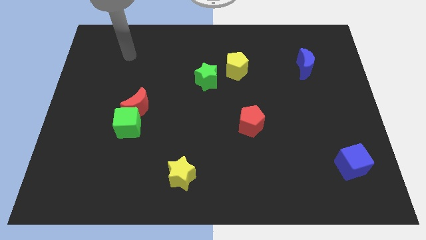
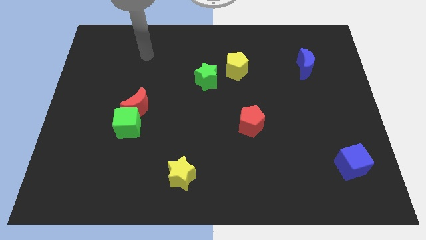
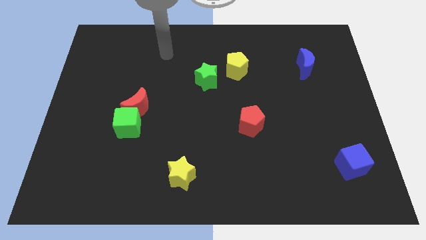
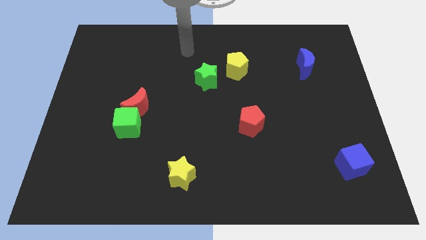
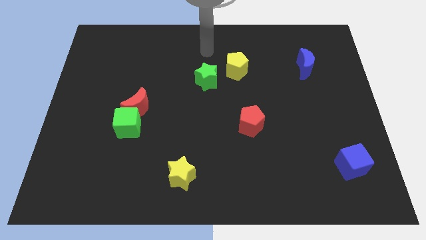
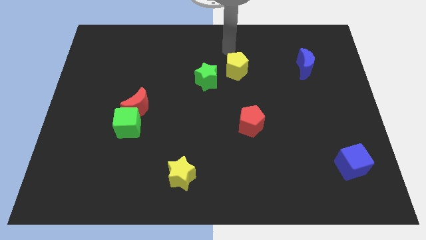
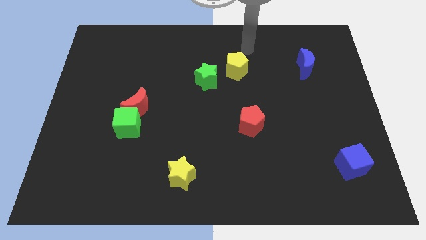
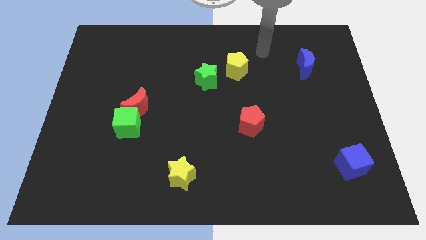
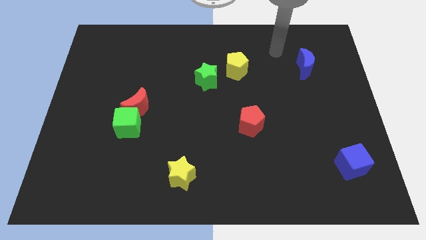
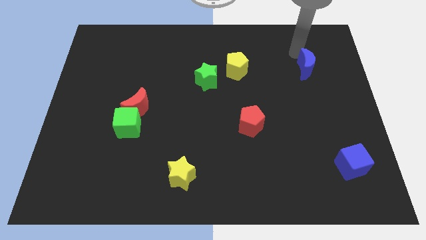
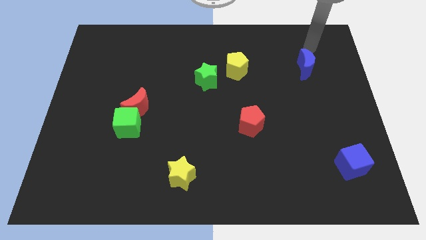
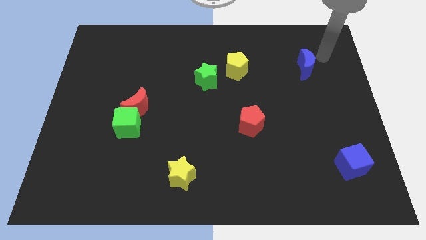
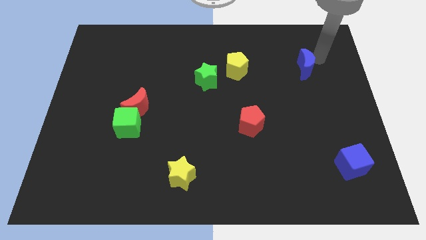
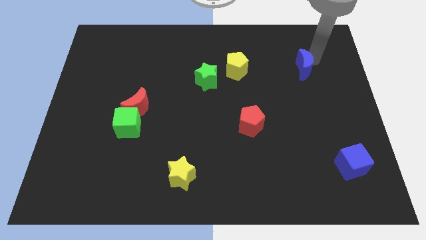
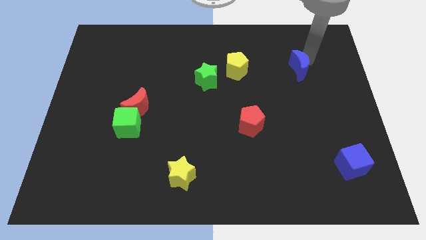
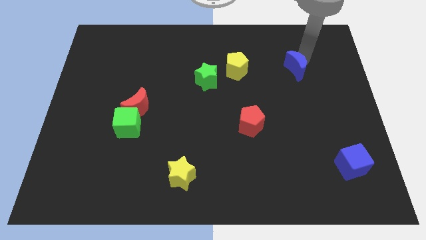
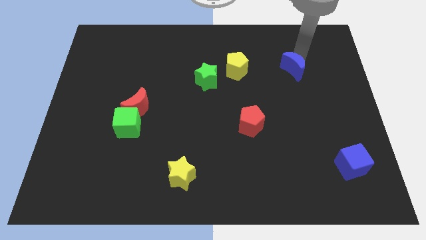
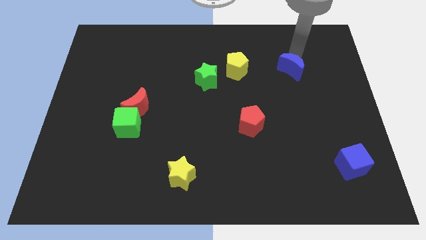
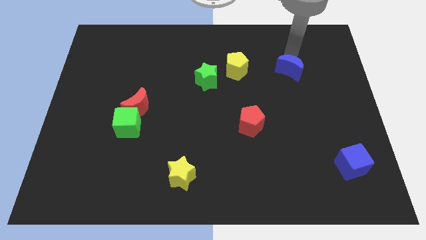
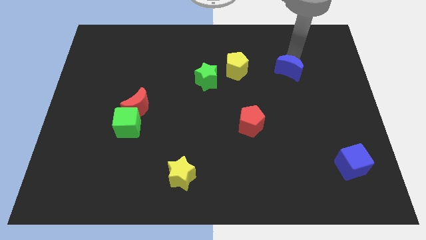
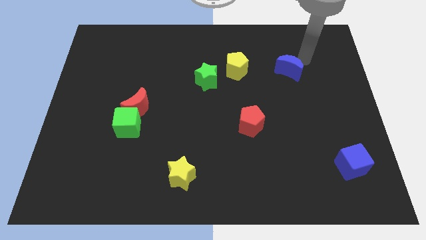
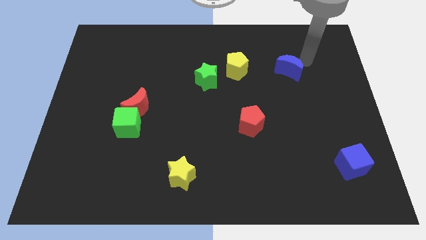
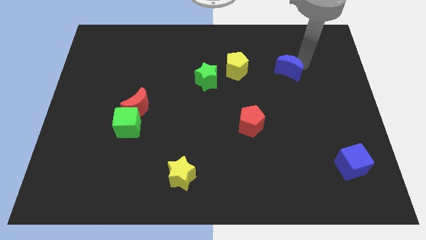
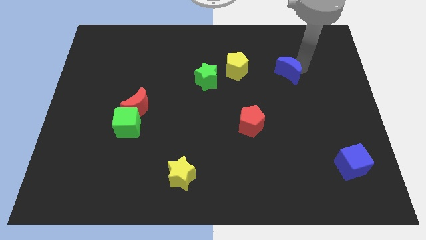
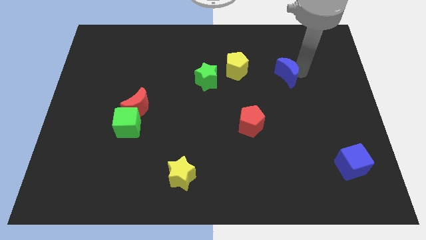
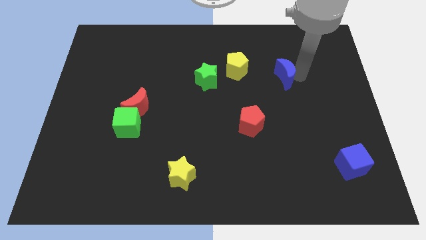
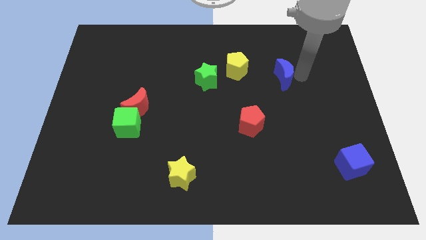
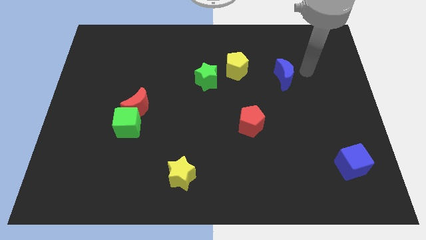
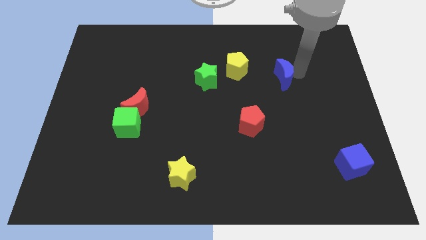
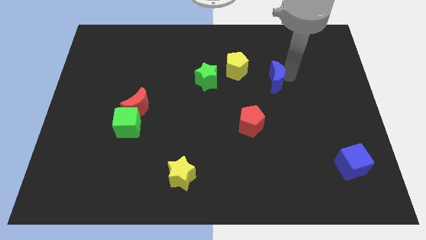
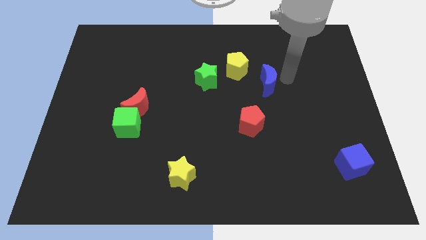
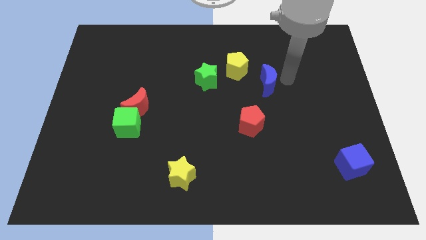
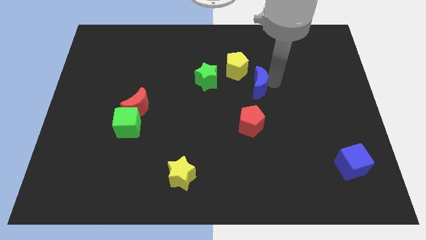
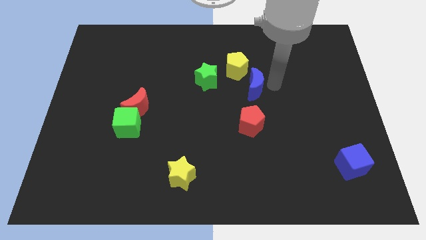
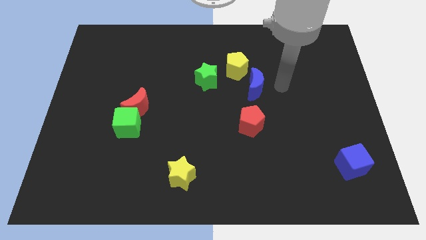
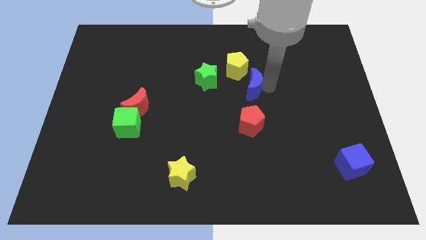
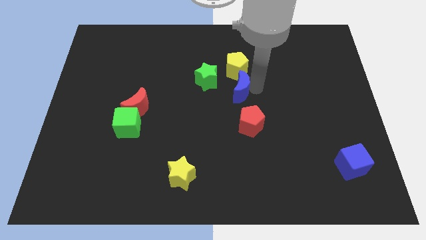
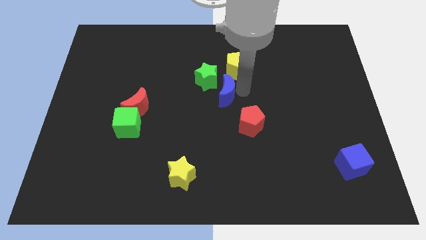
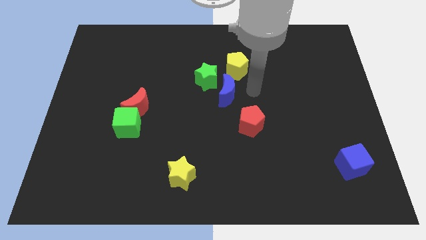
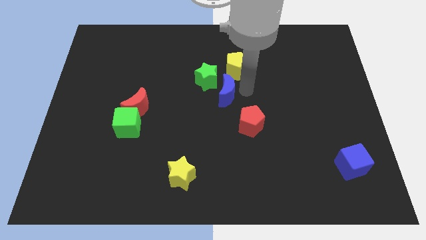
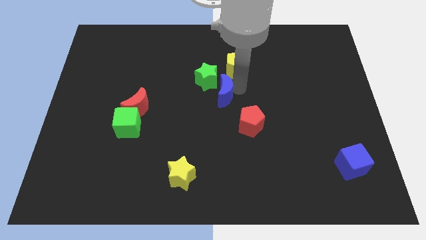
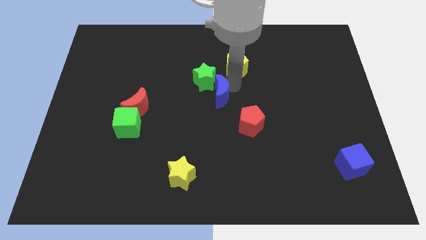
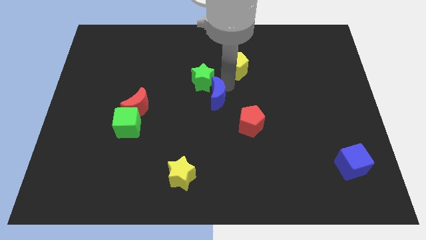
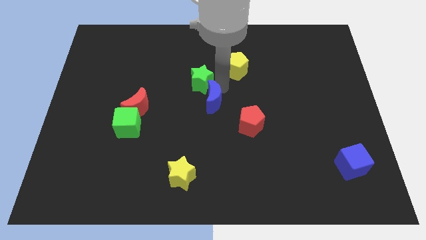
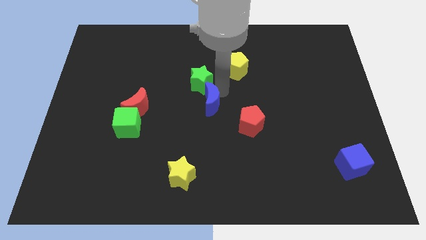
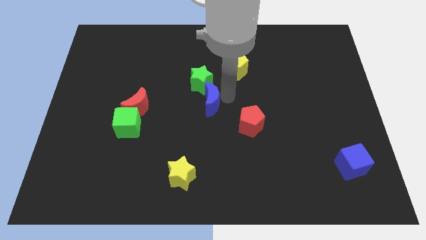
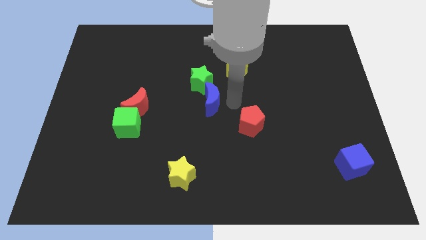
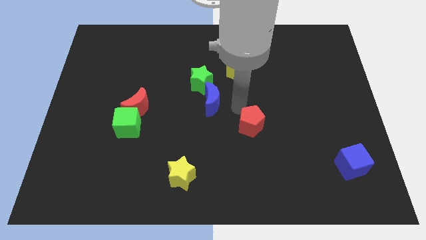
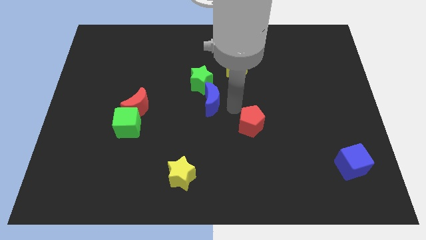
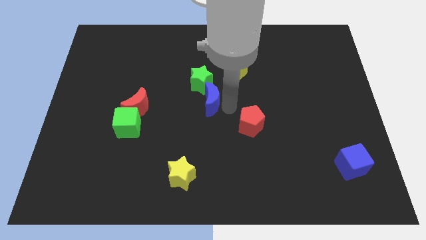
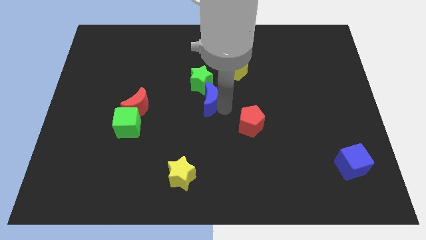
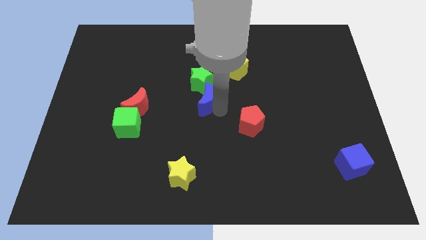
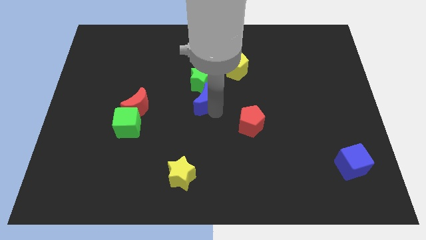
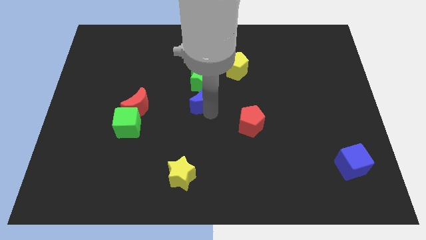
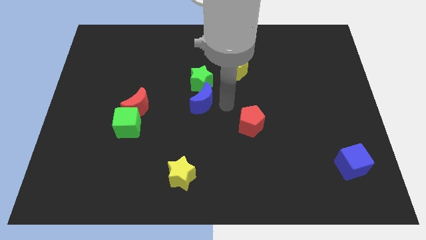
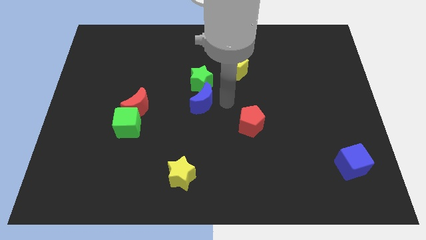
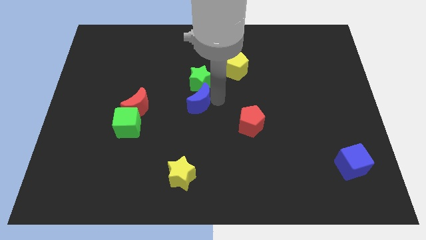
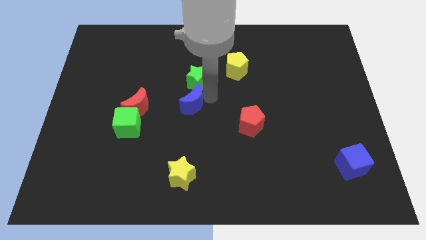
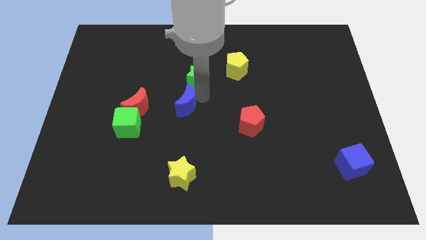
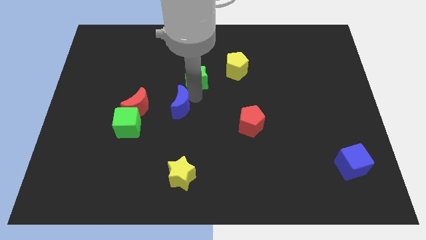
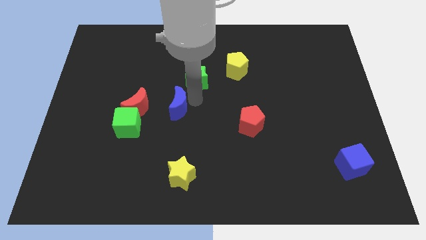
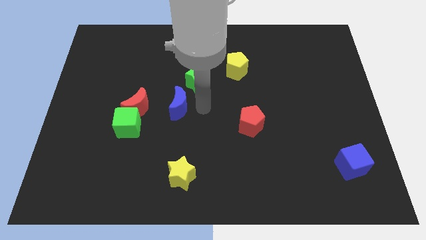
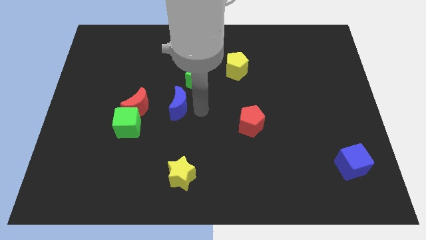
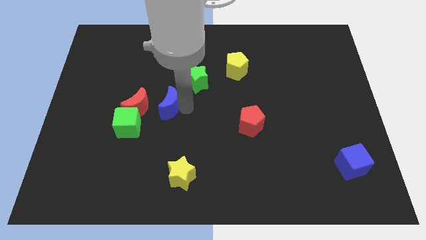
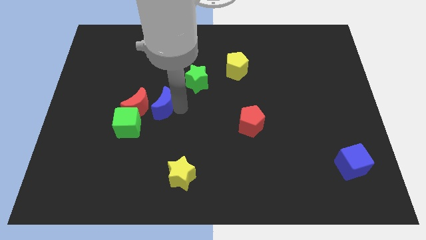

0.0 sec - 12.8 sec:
slide the blue moon to the red moon

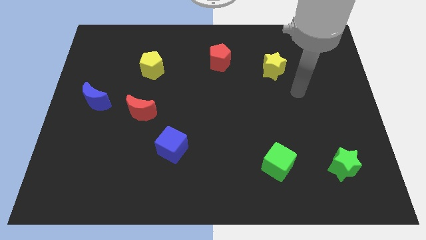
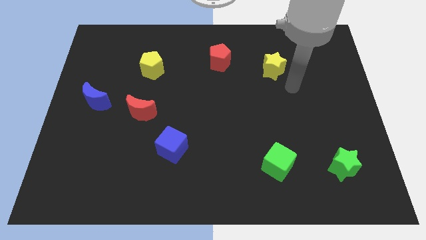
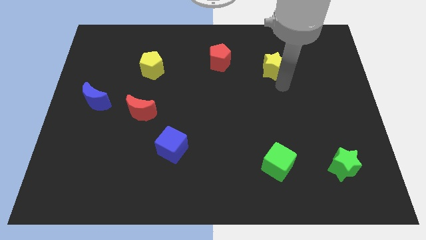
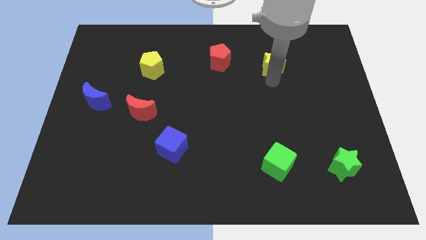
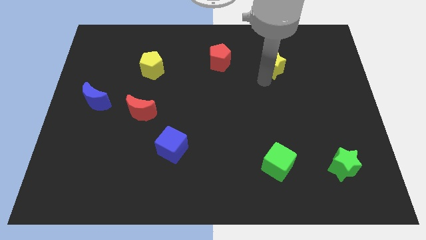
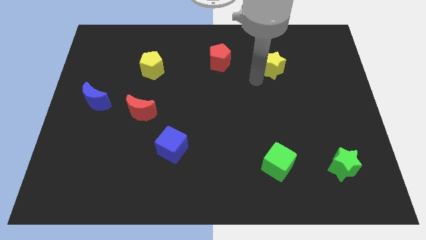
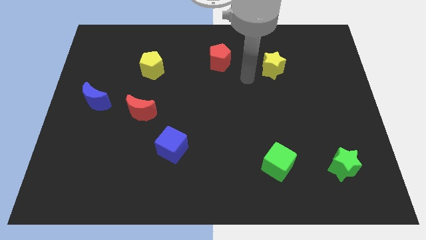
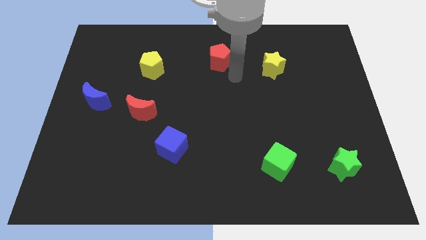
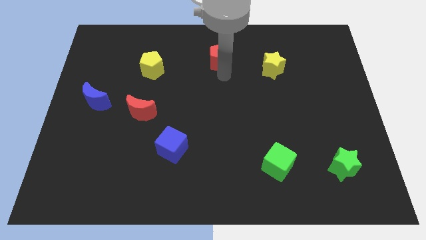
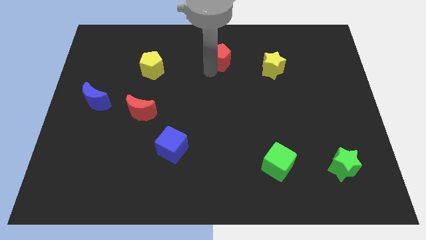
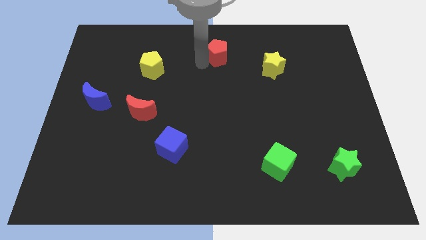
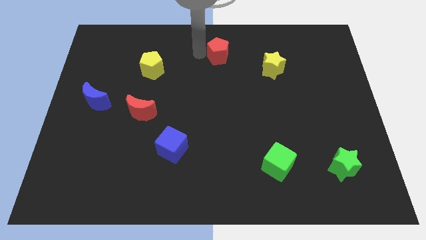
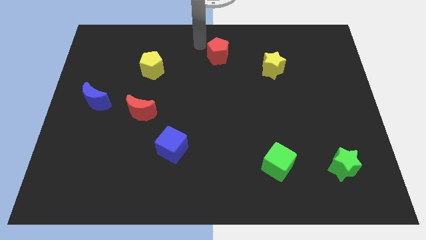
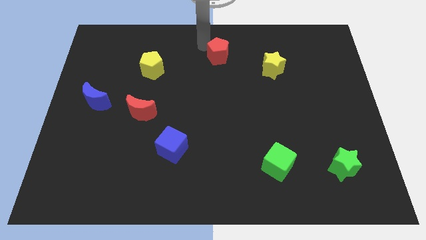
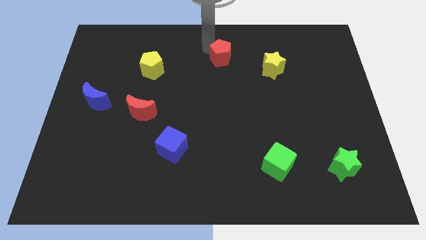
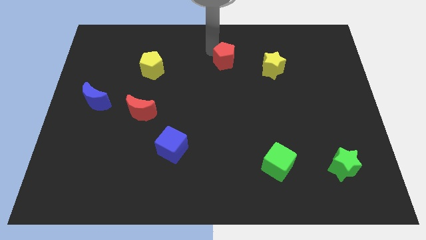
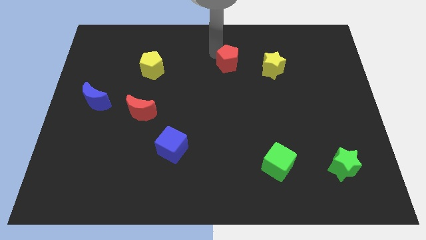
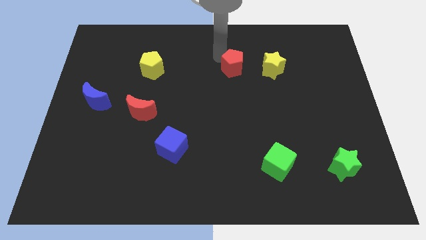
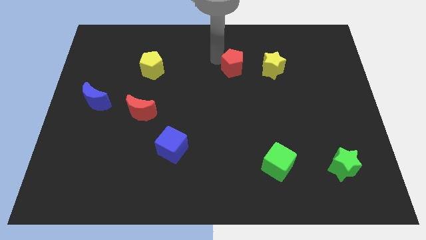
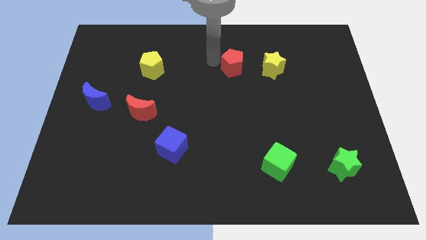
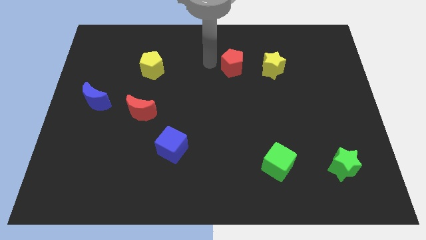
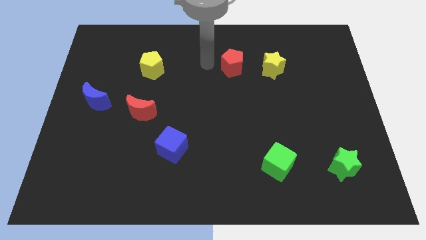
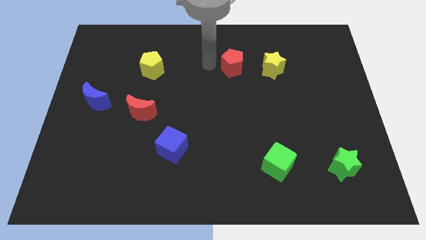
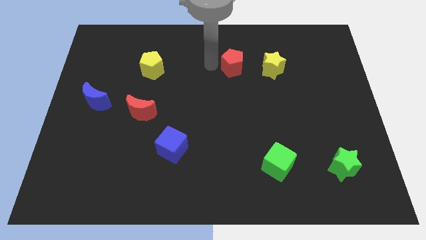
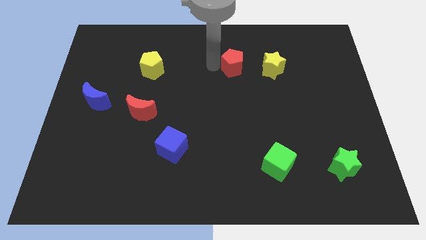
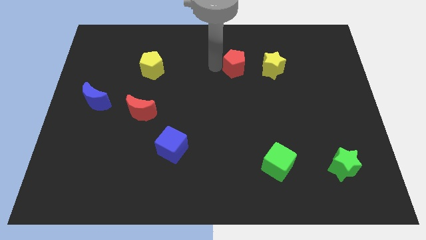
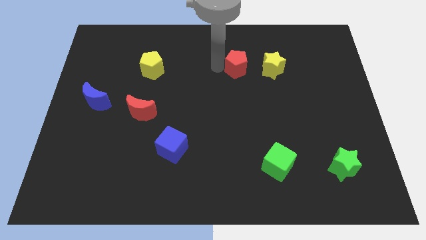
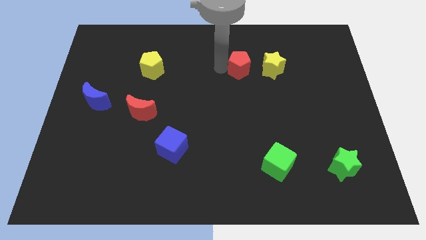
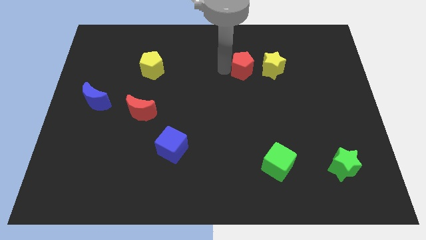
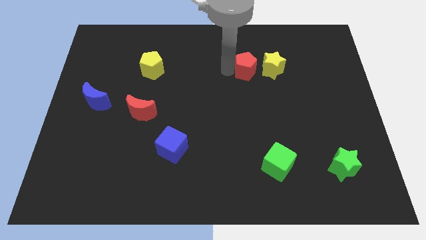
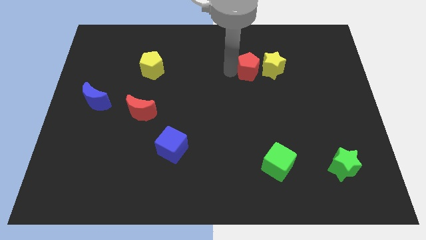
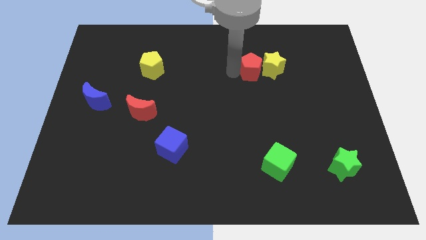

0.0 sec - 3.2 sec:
slide the red pentagon close to the yellow star
